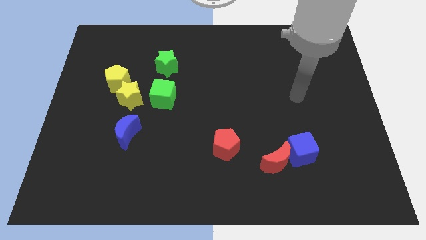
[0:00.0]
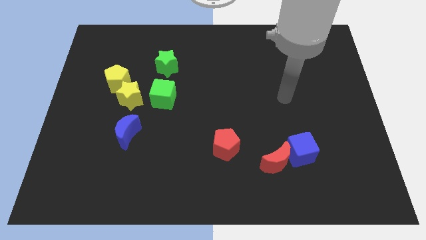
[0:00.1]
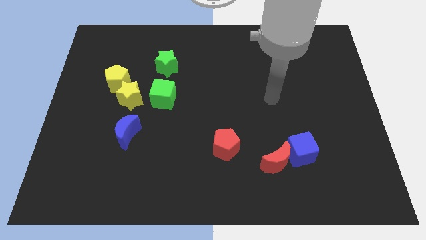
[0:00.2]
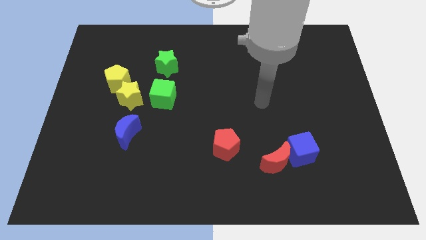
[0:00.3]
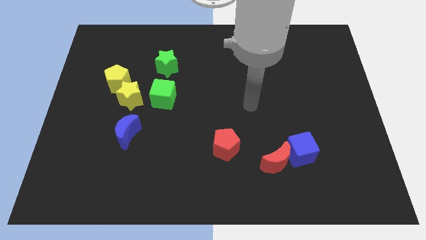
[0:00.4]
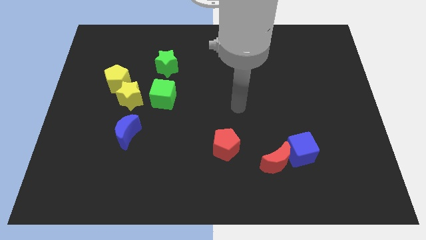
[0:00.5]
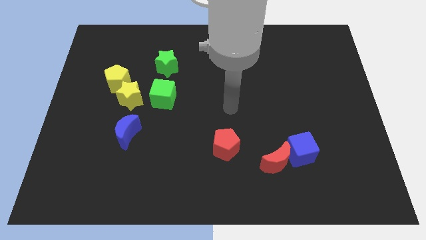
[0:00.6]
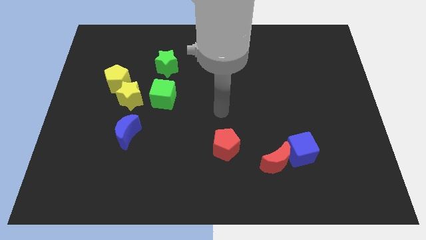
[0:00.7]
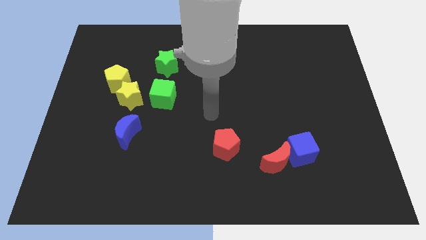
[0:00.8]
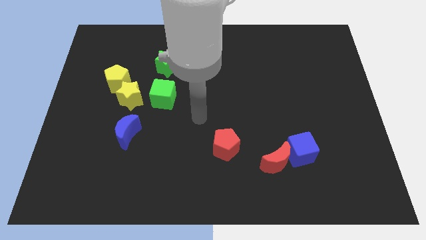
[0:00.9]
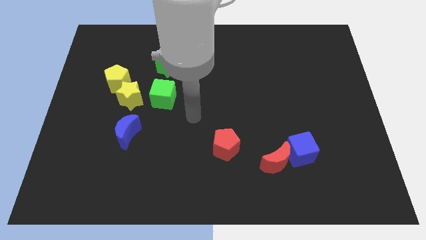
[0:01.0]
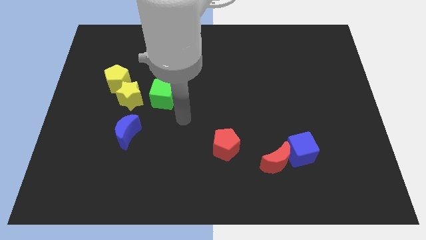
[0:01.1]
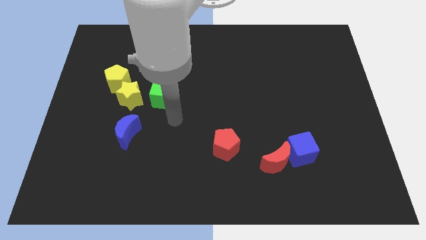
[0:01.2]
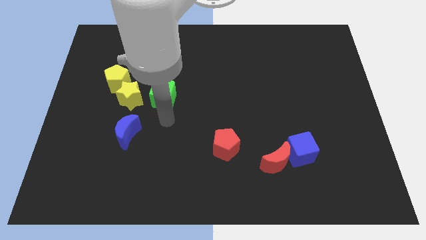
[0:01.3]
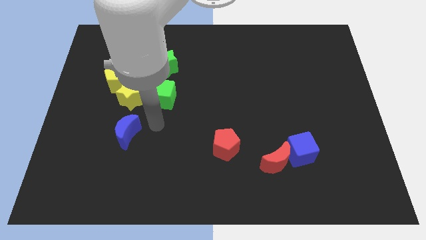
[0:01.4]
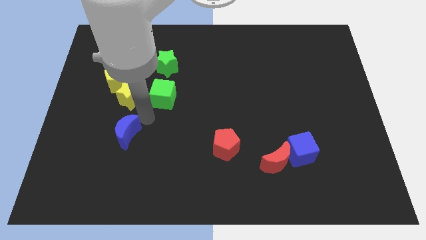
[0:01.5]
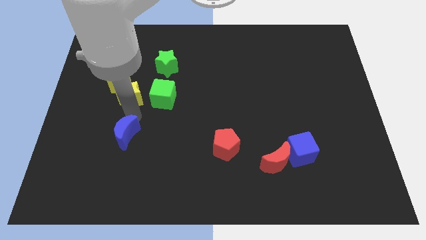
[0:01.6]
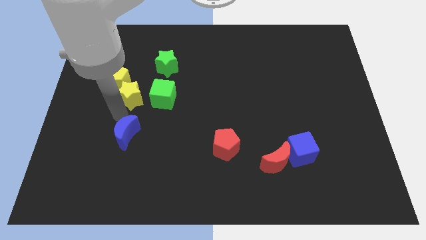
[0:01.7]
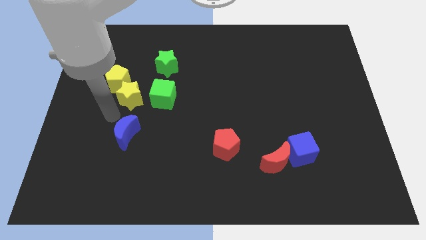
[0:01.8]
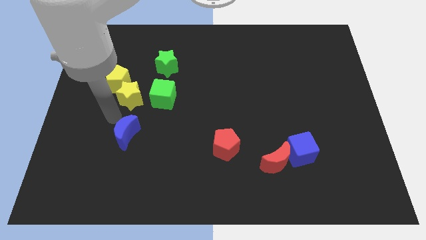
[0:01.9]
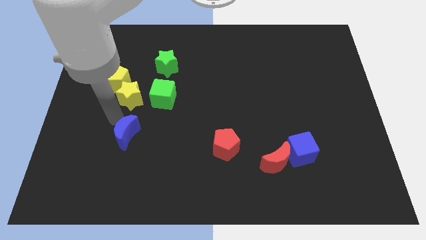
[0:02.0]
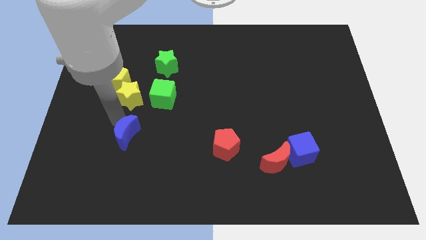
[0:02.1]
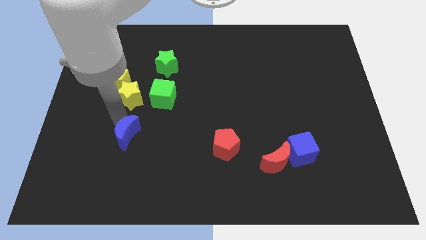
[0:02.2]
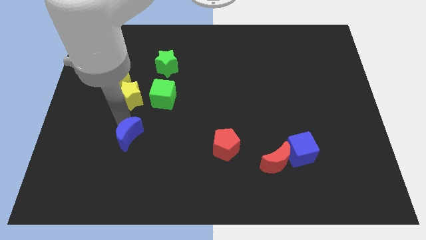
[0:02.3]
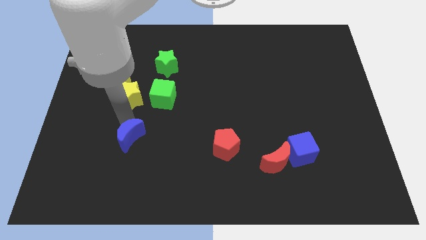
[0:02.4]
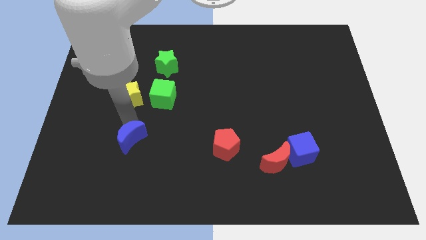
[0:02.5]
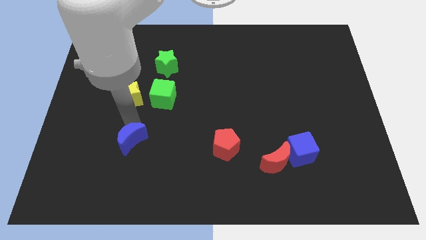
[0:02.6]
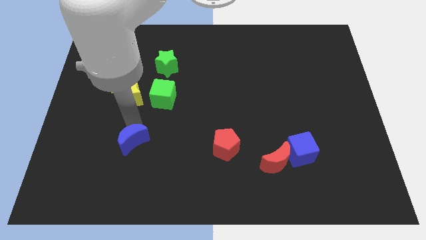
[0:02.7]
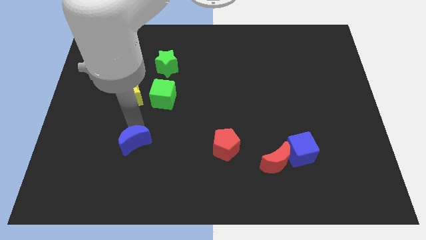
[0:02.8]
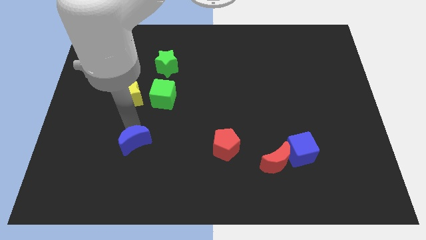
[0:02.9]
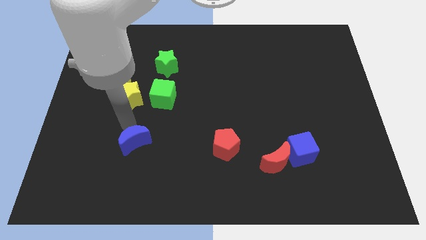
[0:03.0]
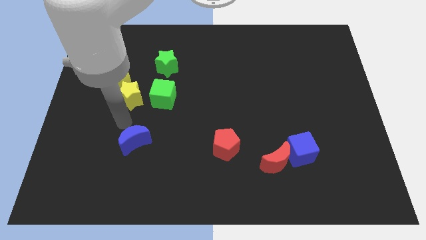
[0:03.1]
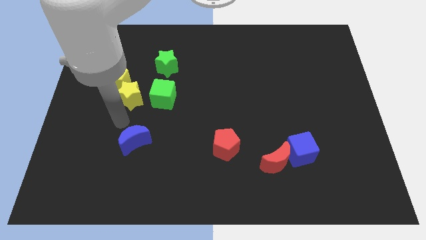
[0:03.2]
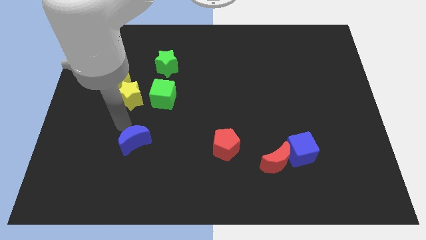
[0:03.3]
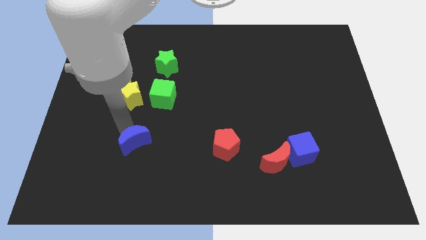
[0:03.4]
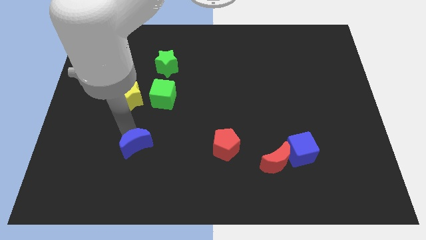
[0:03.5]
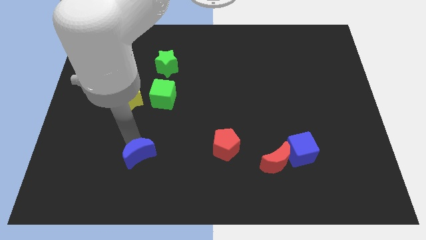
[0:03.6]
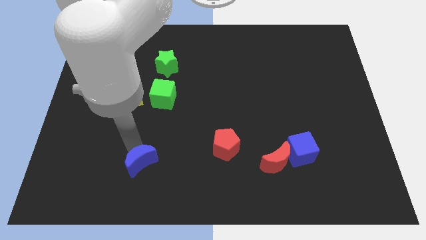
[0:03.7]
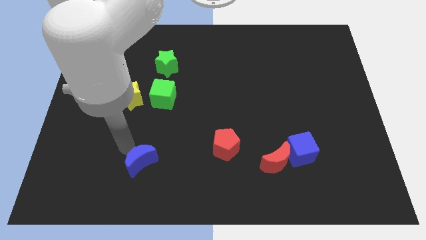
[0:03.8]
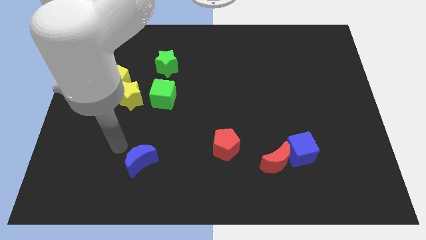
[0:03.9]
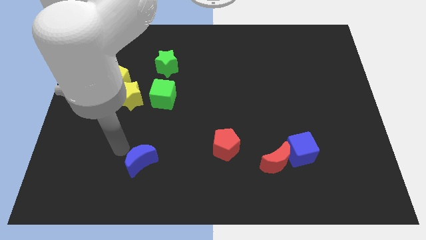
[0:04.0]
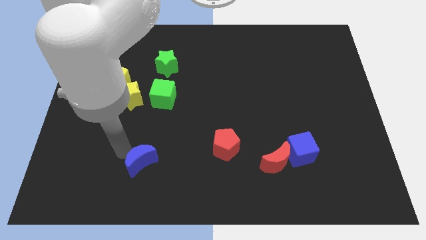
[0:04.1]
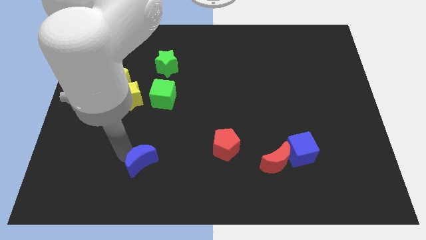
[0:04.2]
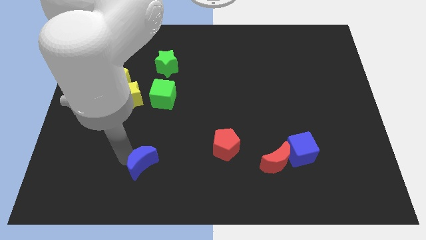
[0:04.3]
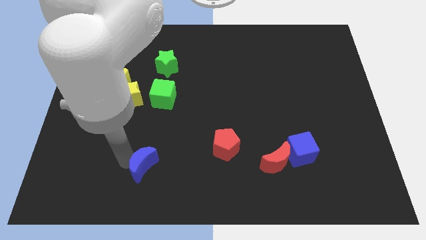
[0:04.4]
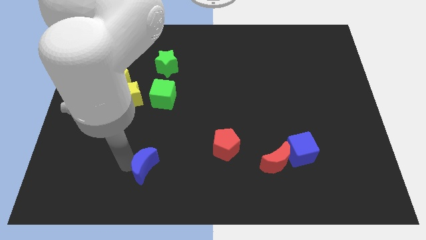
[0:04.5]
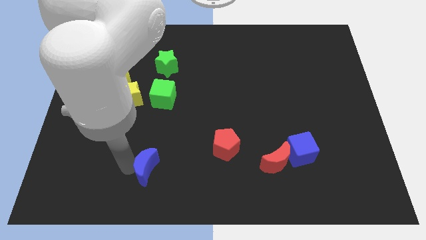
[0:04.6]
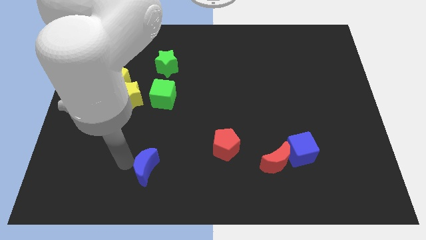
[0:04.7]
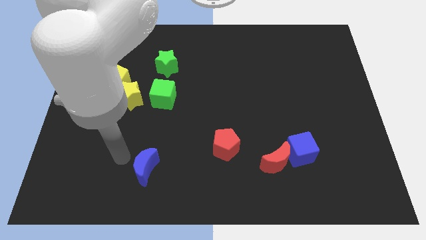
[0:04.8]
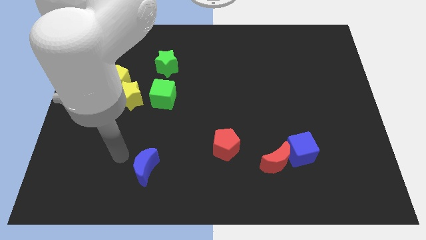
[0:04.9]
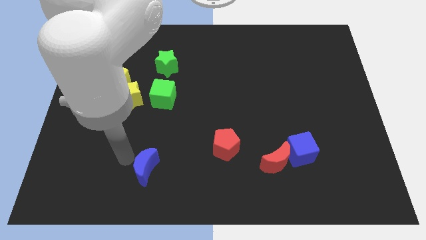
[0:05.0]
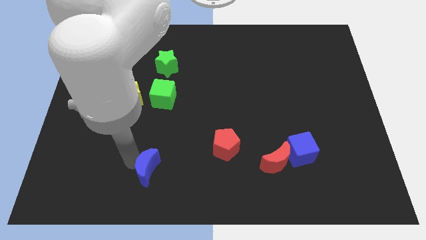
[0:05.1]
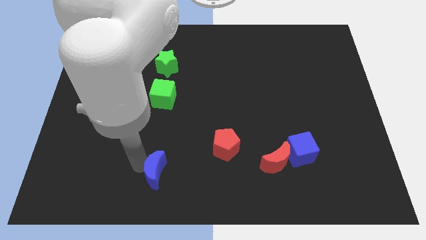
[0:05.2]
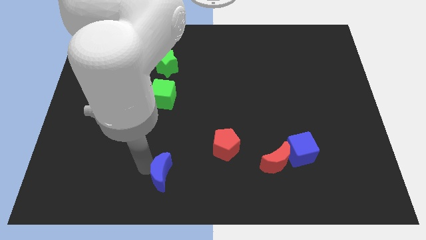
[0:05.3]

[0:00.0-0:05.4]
push the blue moon to the bottom

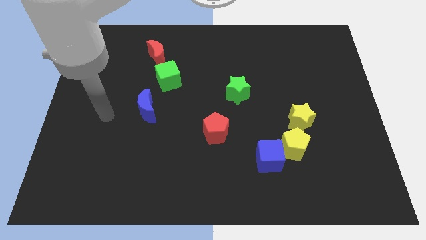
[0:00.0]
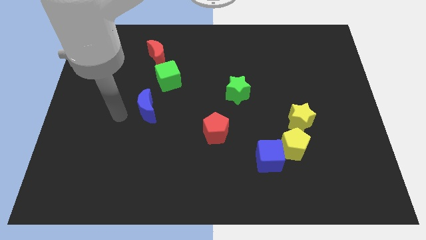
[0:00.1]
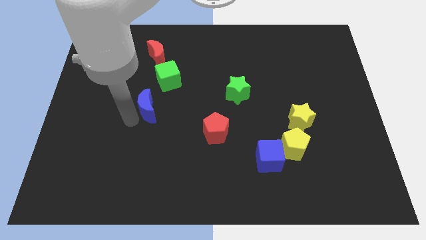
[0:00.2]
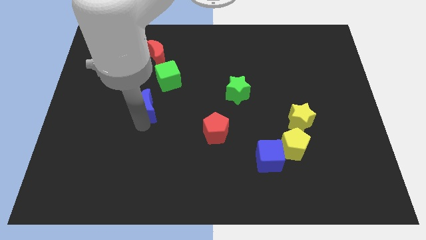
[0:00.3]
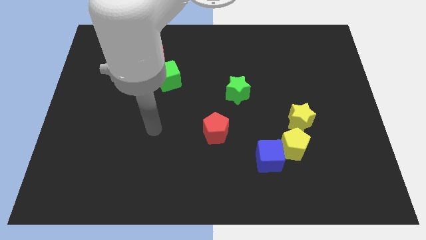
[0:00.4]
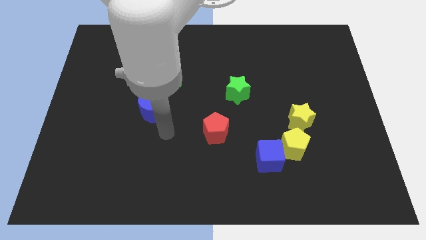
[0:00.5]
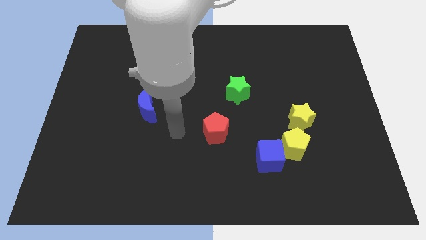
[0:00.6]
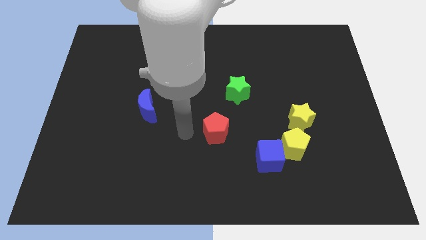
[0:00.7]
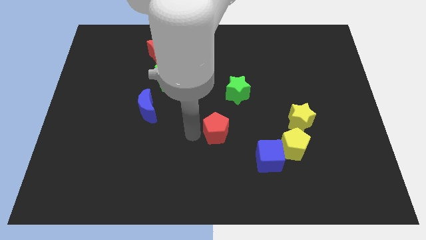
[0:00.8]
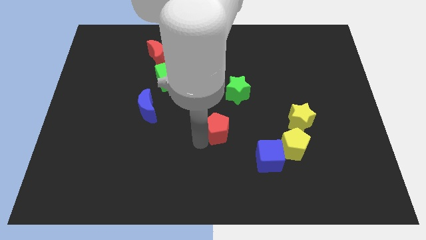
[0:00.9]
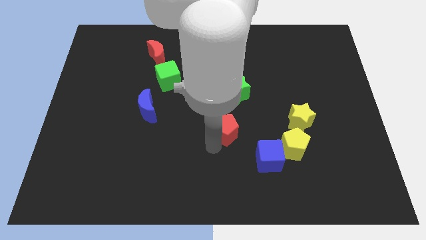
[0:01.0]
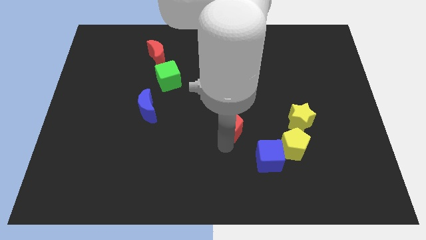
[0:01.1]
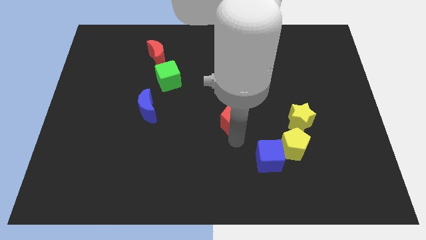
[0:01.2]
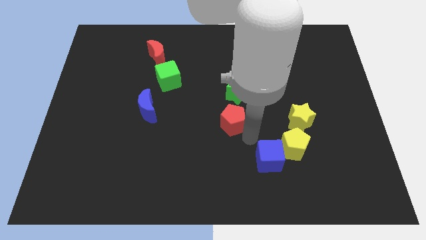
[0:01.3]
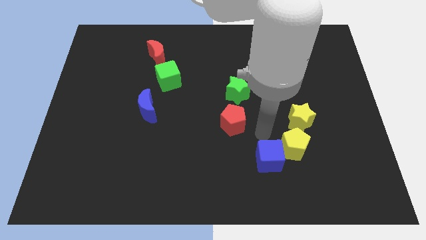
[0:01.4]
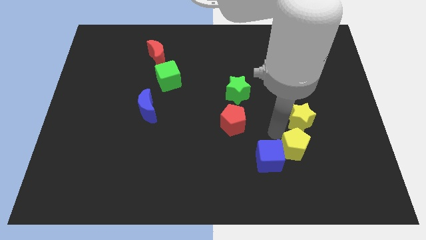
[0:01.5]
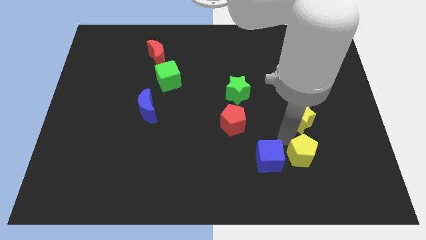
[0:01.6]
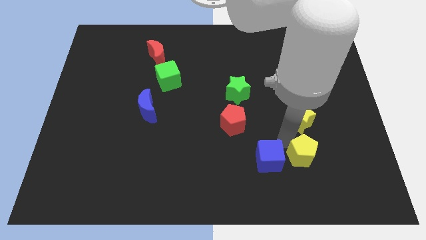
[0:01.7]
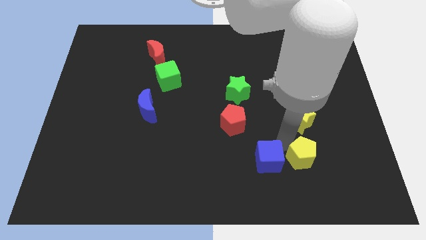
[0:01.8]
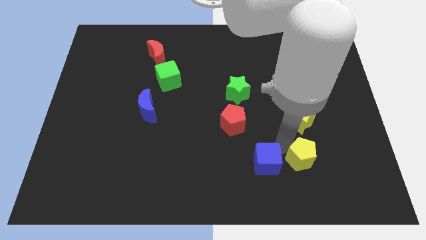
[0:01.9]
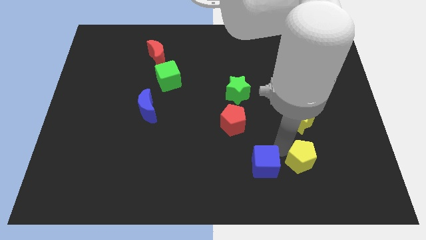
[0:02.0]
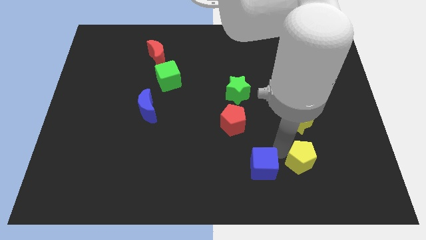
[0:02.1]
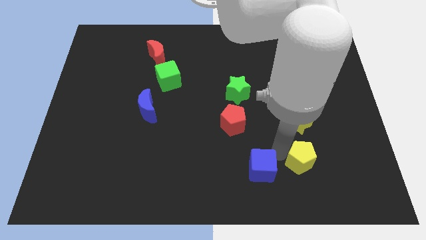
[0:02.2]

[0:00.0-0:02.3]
slide the blue cube to the bottom side
